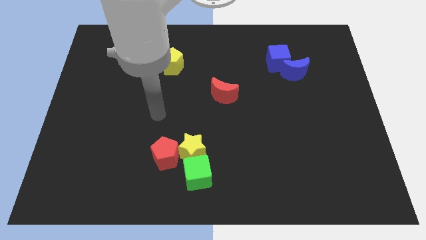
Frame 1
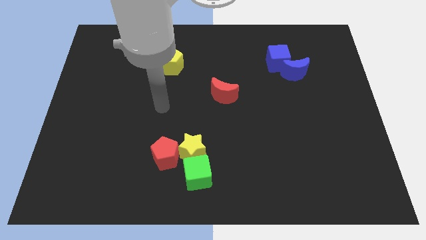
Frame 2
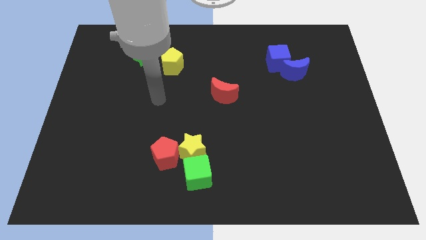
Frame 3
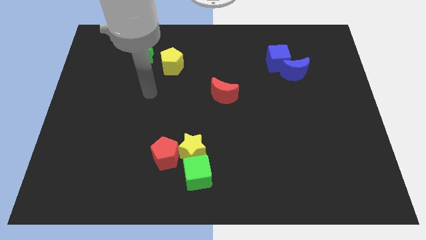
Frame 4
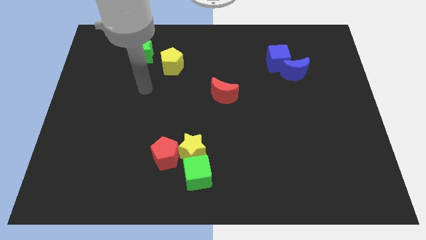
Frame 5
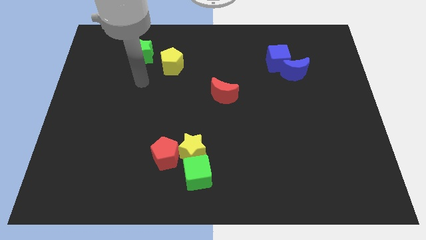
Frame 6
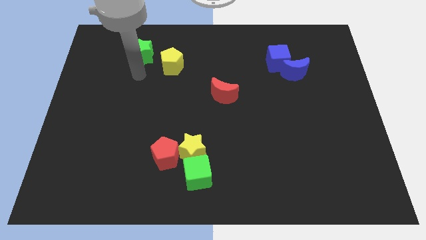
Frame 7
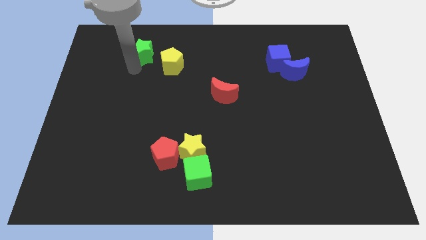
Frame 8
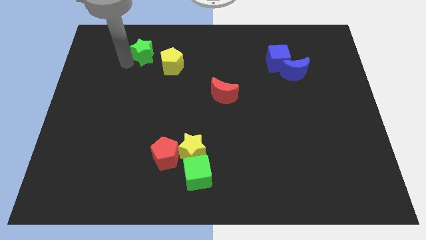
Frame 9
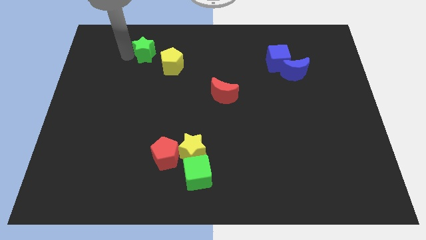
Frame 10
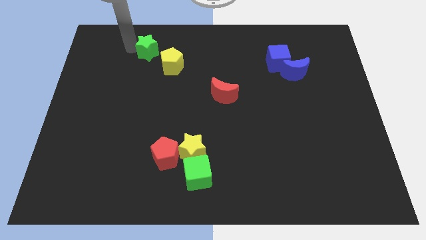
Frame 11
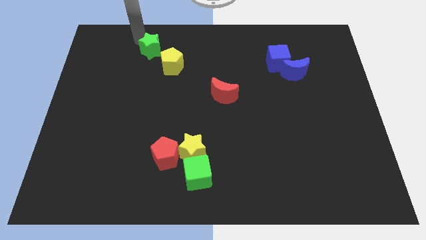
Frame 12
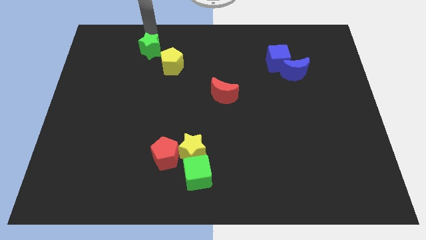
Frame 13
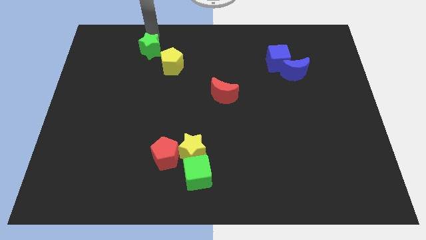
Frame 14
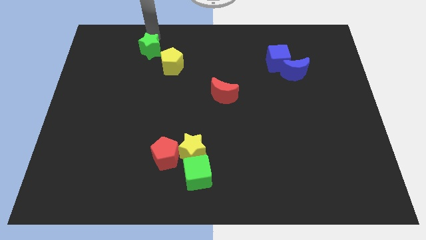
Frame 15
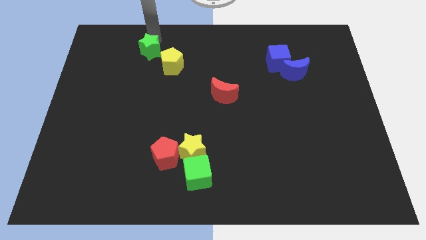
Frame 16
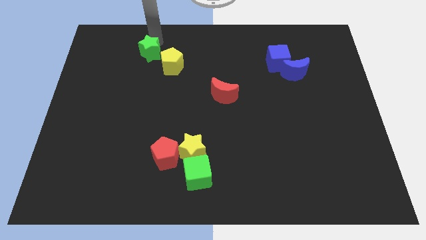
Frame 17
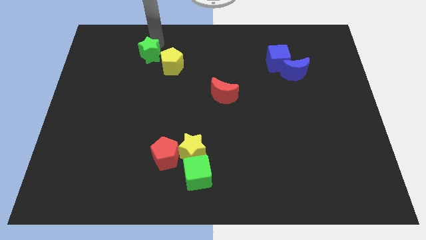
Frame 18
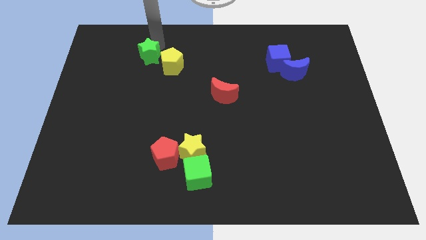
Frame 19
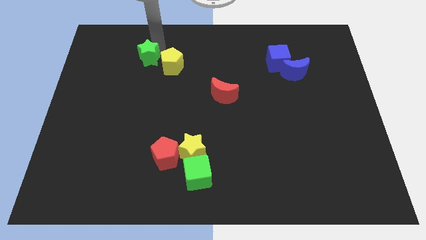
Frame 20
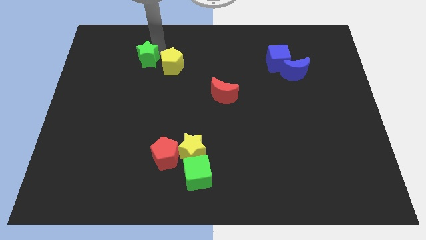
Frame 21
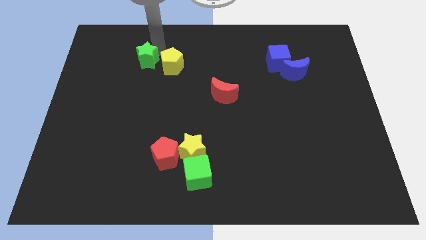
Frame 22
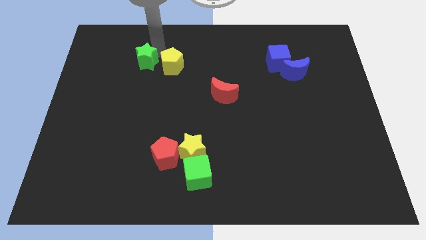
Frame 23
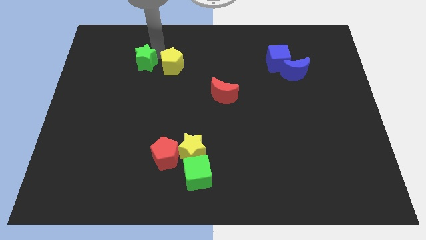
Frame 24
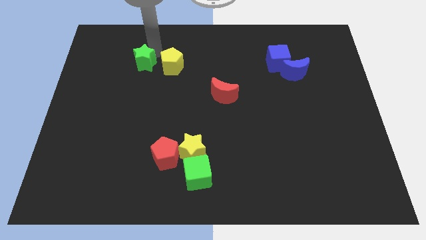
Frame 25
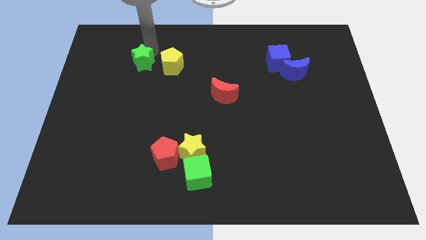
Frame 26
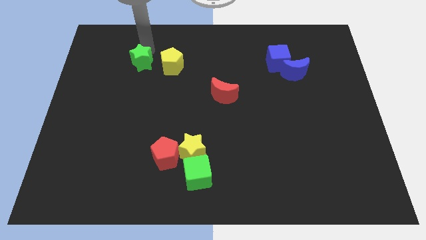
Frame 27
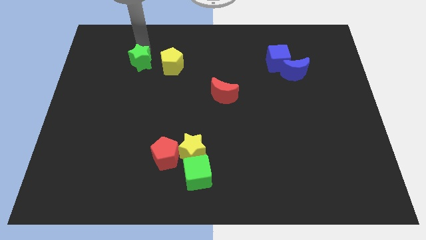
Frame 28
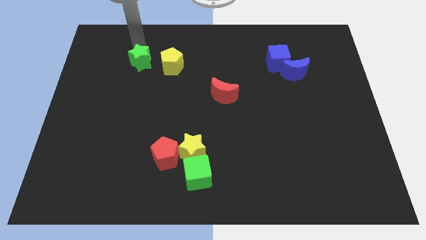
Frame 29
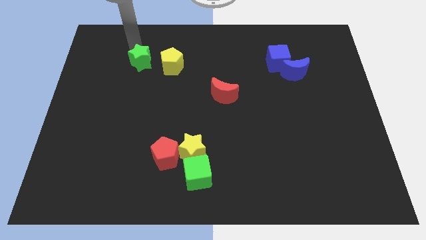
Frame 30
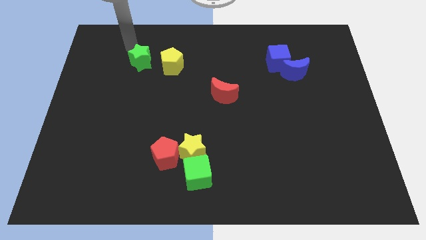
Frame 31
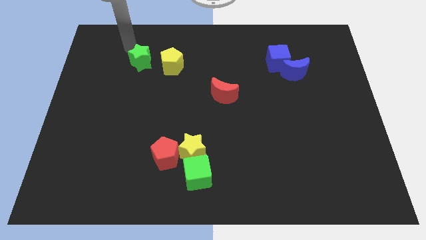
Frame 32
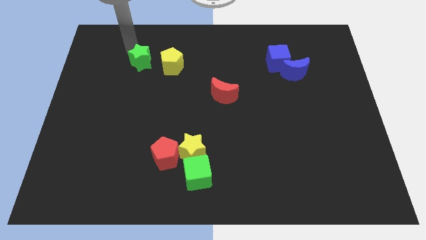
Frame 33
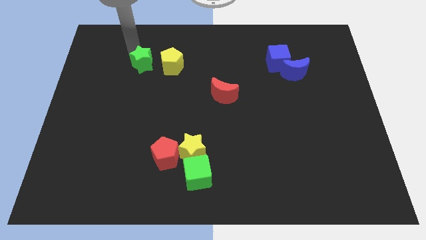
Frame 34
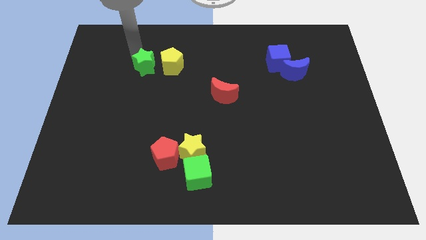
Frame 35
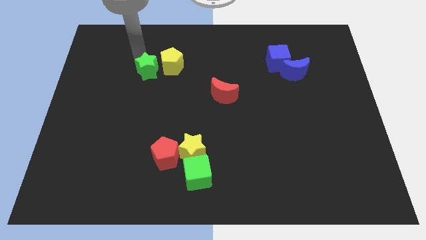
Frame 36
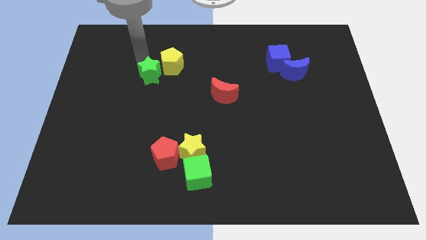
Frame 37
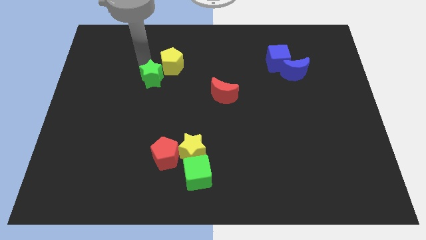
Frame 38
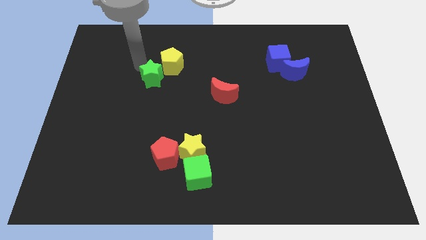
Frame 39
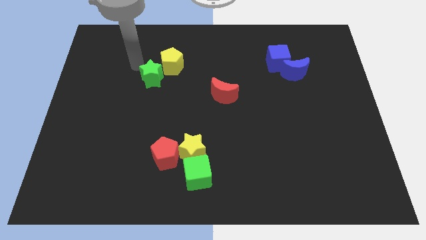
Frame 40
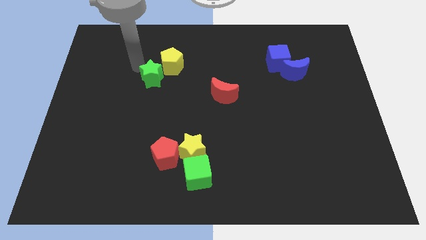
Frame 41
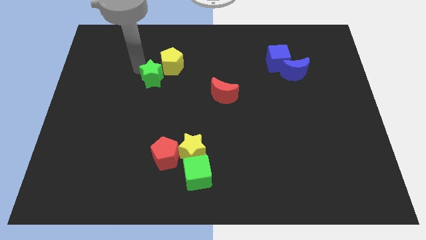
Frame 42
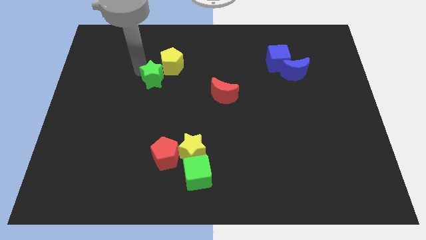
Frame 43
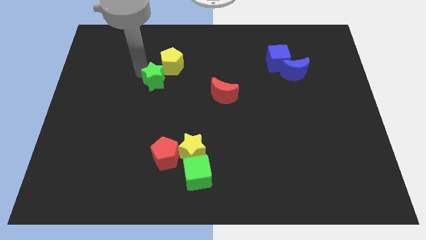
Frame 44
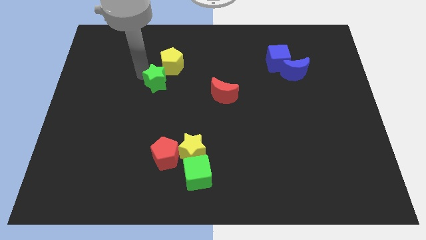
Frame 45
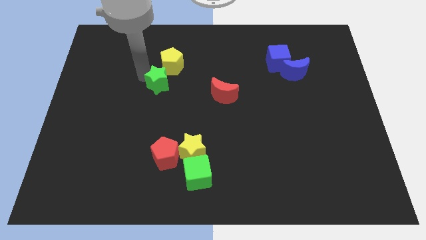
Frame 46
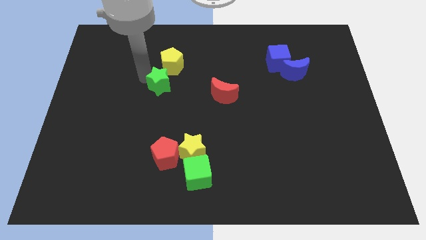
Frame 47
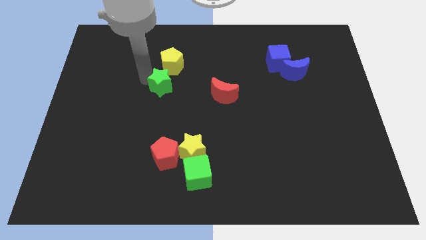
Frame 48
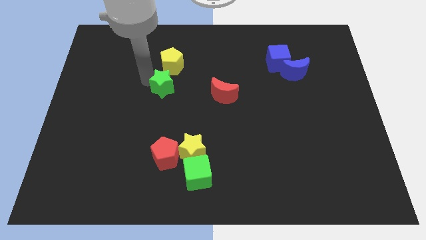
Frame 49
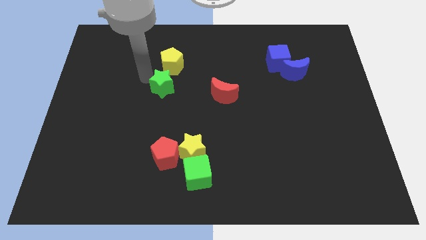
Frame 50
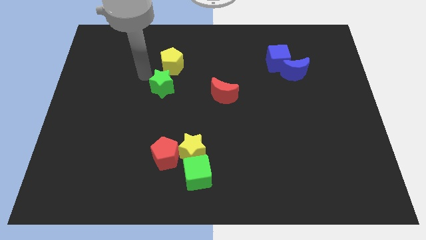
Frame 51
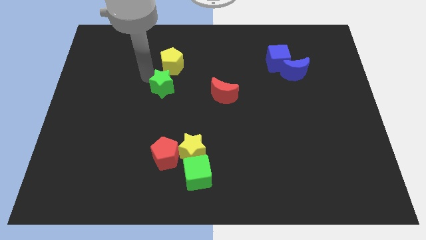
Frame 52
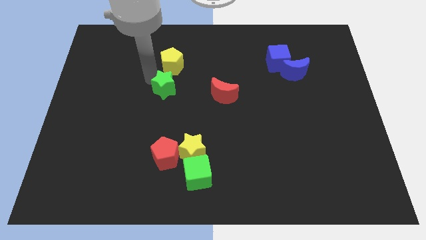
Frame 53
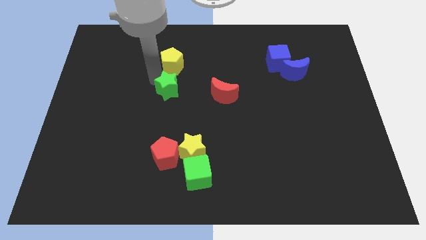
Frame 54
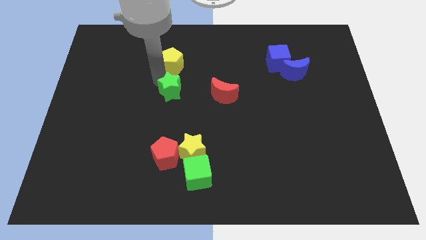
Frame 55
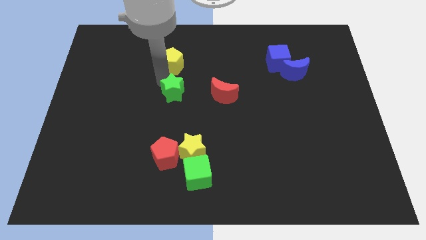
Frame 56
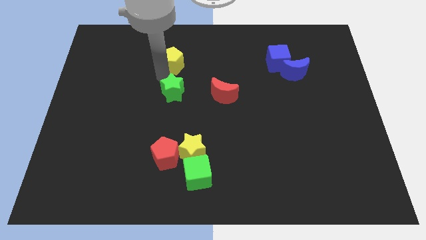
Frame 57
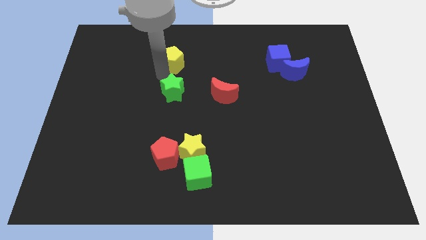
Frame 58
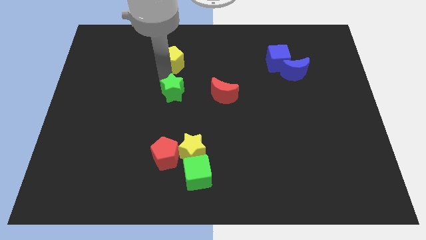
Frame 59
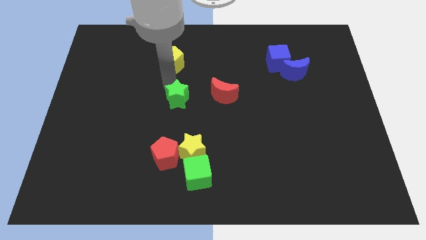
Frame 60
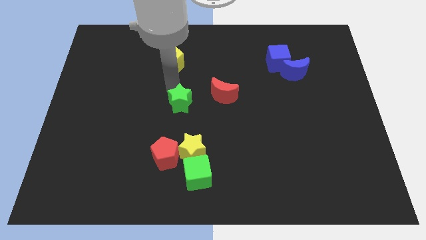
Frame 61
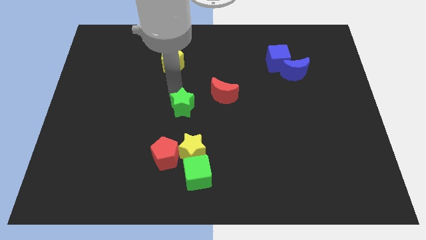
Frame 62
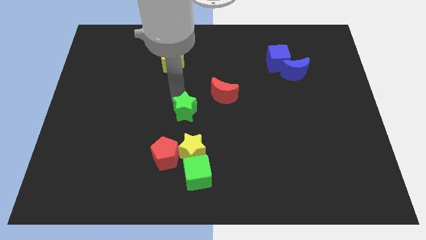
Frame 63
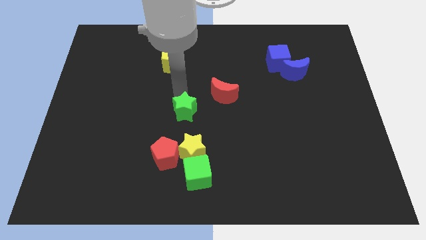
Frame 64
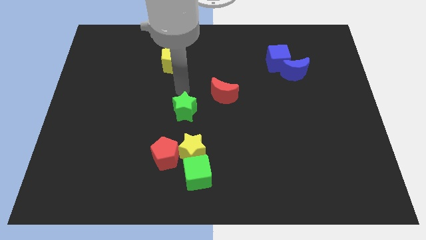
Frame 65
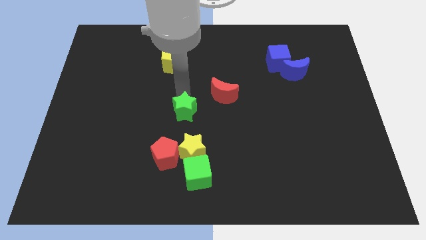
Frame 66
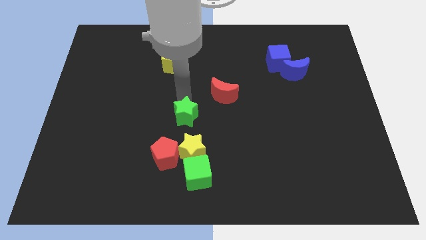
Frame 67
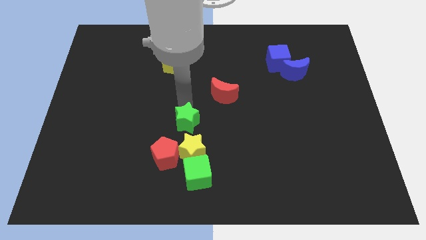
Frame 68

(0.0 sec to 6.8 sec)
slide the green star to the top right side of the red pentagon

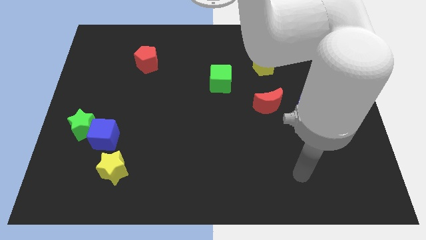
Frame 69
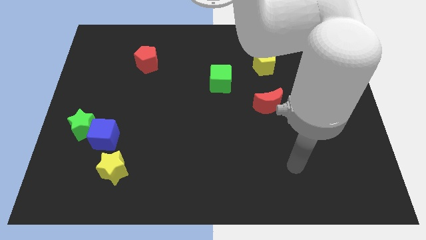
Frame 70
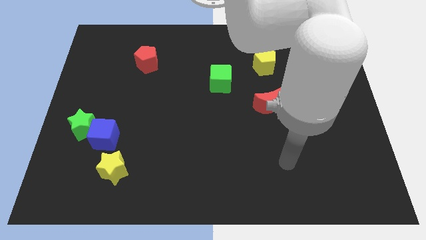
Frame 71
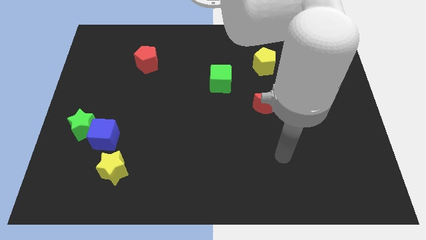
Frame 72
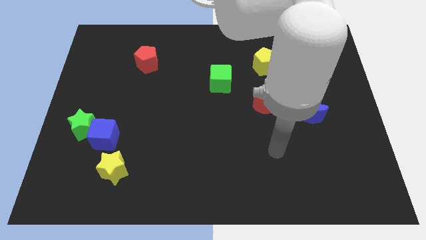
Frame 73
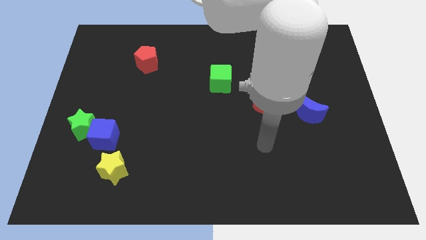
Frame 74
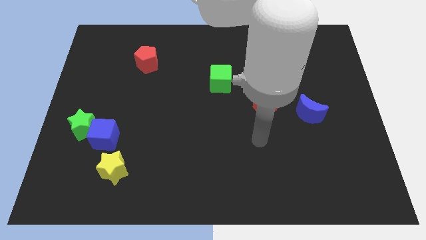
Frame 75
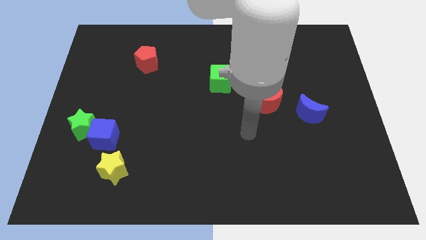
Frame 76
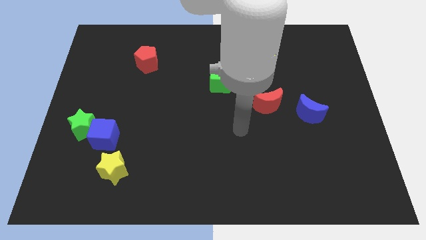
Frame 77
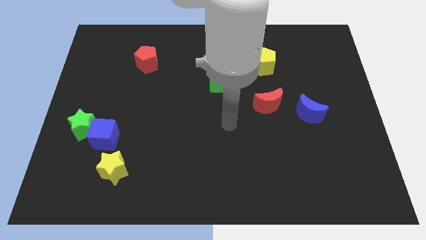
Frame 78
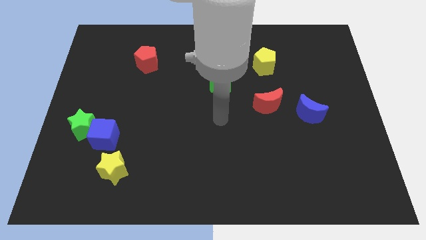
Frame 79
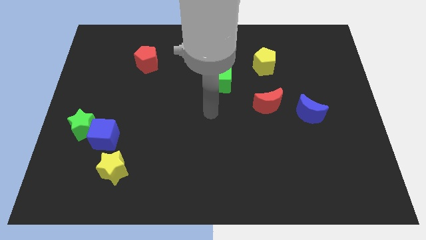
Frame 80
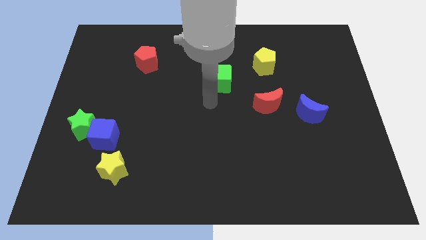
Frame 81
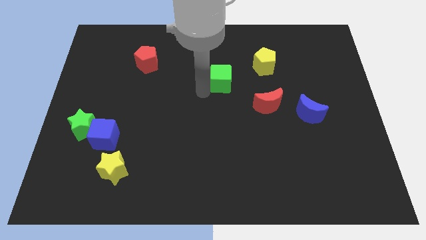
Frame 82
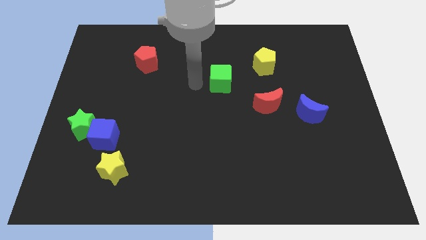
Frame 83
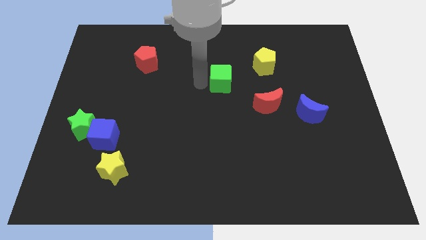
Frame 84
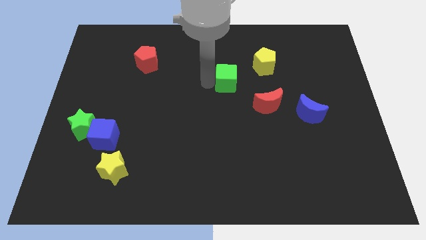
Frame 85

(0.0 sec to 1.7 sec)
move the green cube to the bottom left of the yellow pentagon
